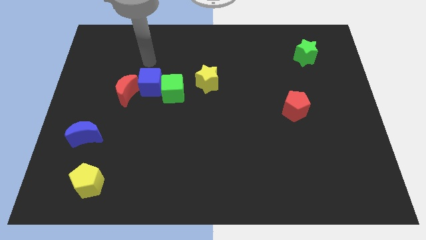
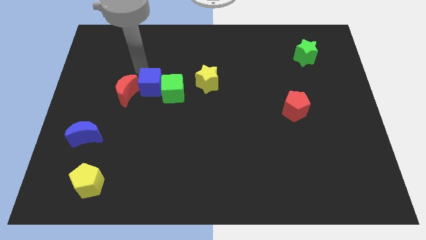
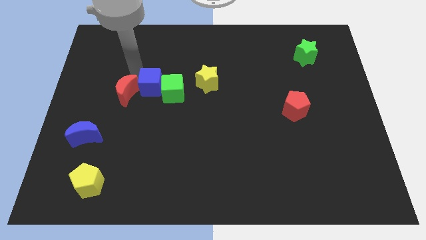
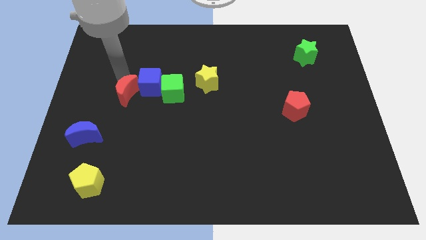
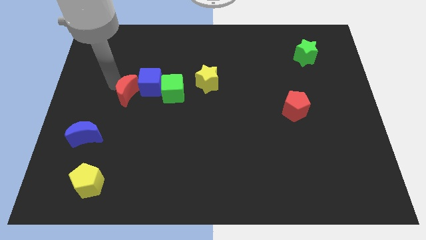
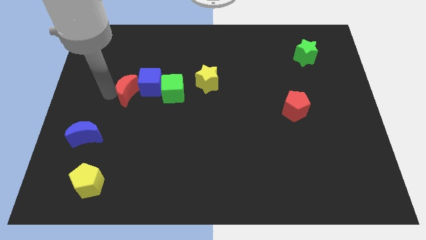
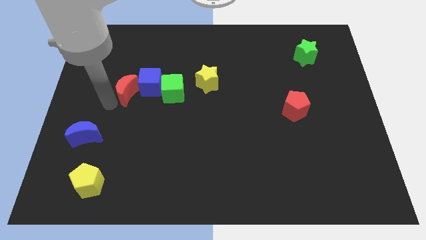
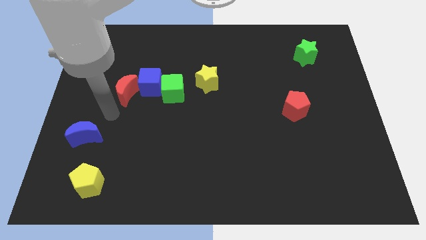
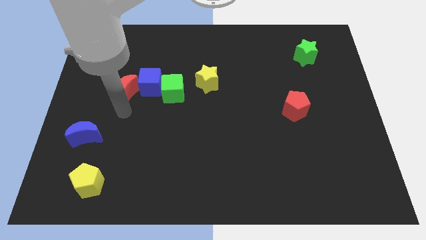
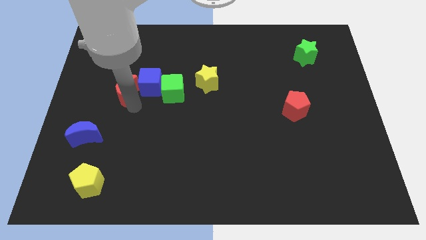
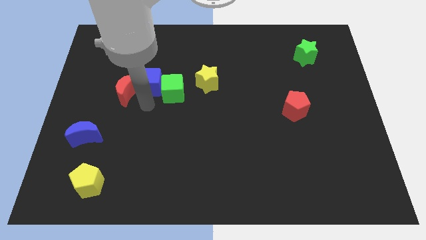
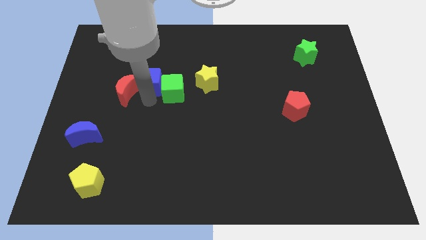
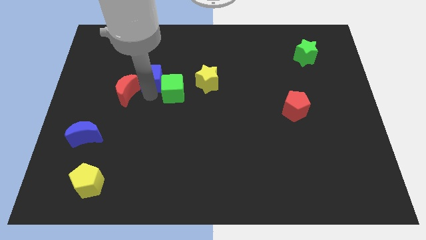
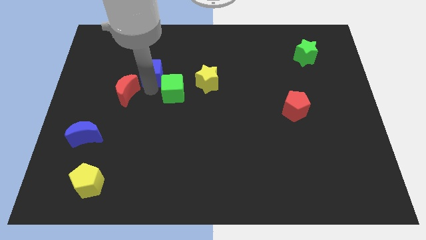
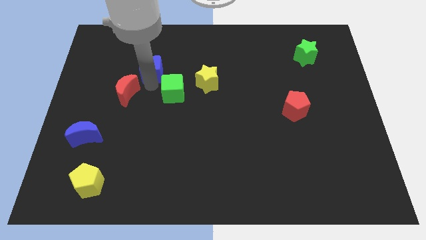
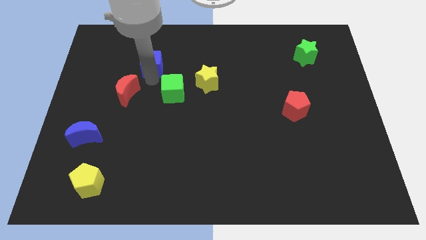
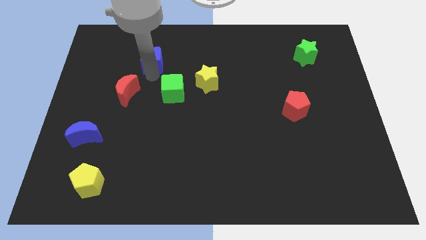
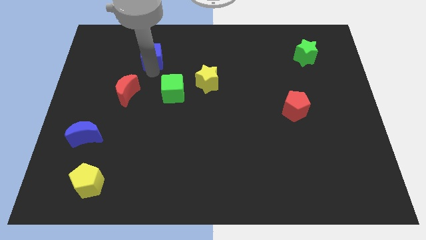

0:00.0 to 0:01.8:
move the blue cube away from the green cube and red moon

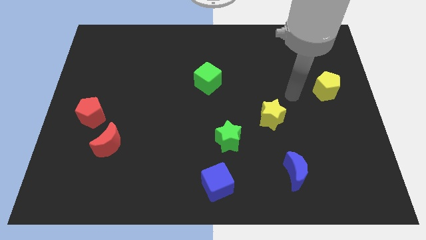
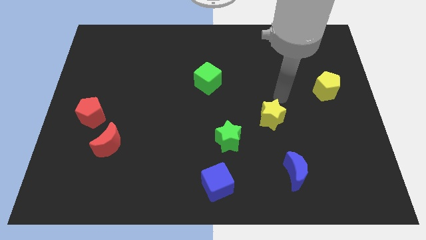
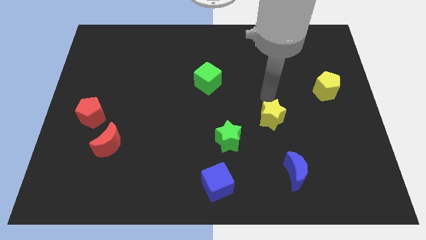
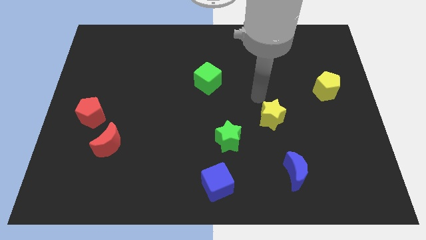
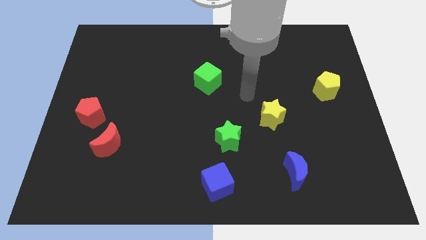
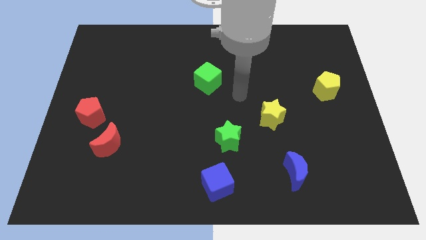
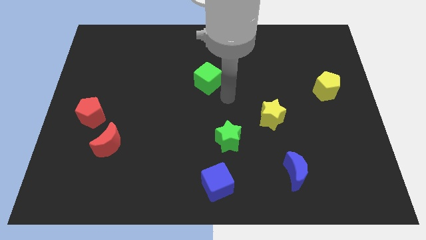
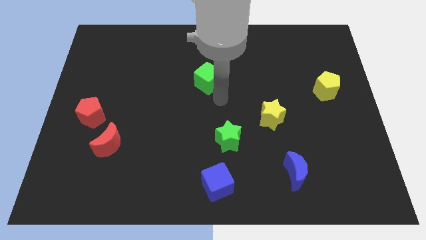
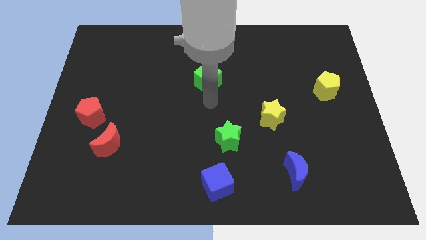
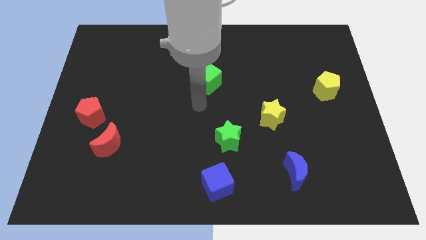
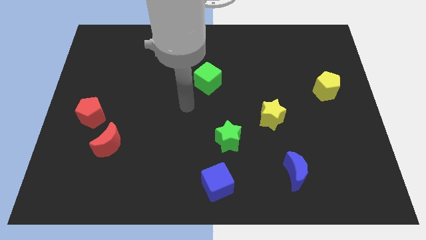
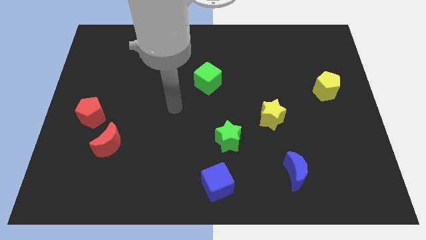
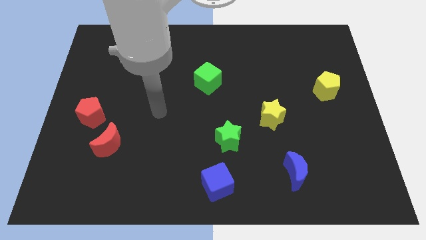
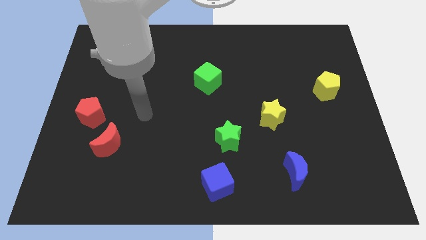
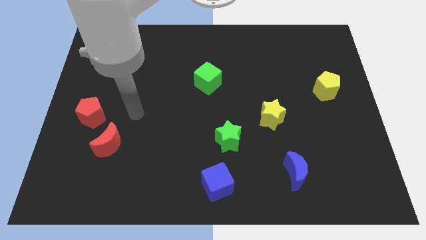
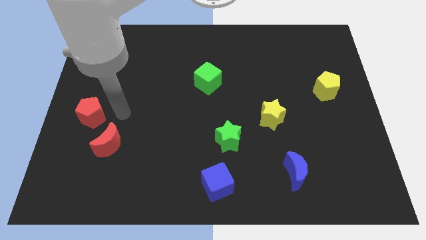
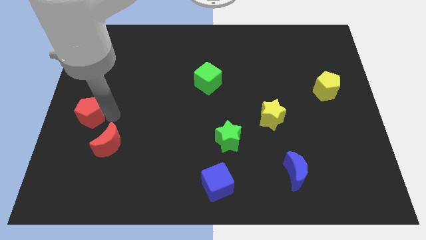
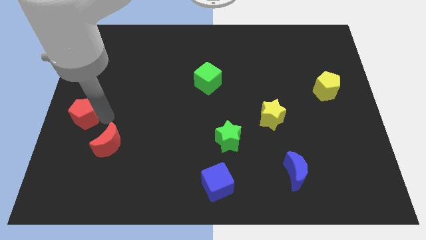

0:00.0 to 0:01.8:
move the red moon away from the red pentagon

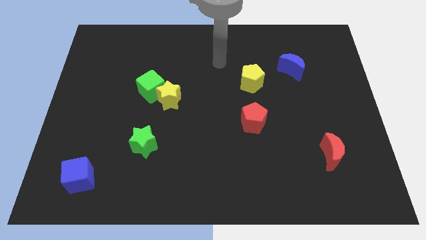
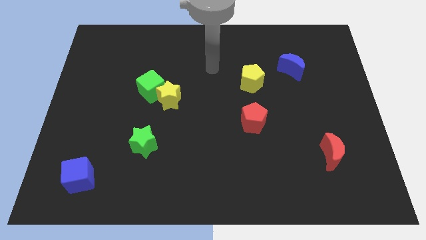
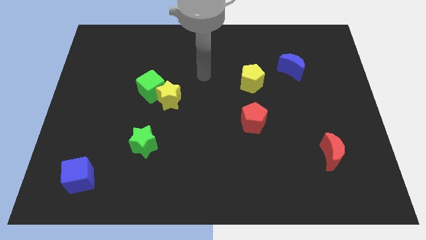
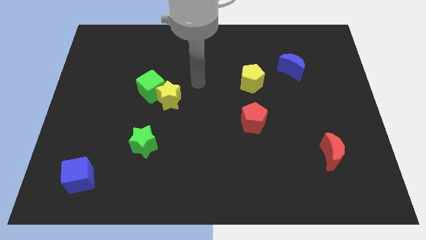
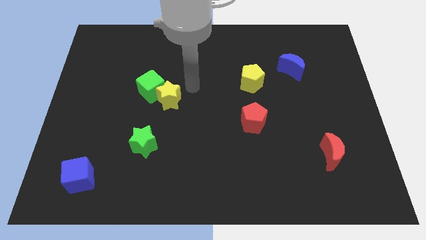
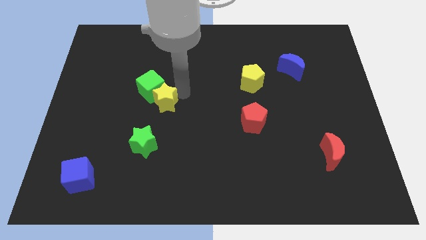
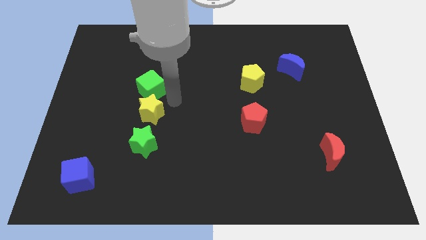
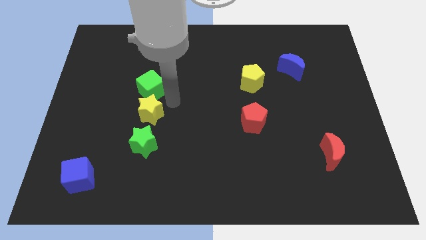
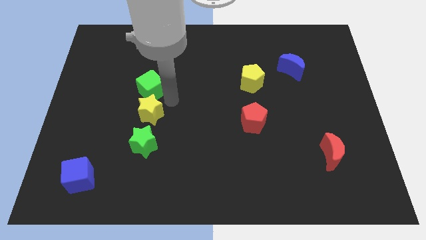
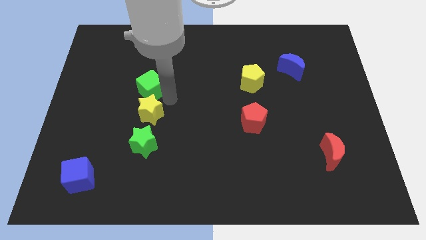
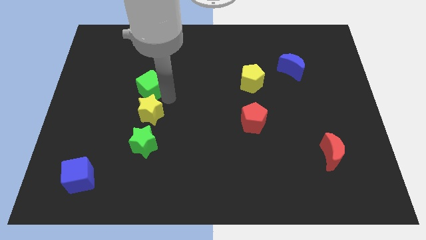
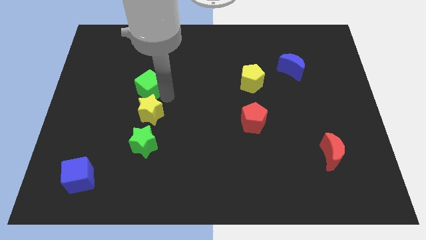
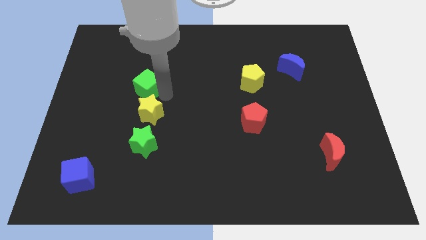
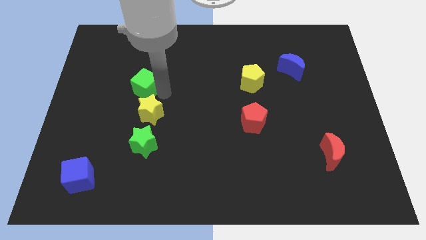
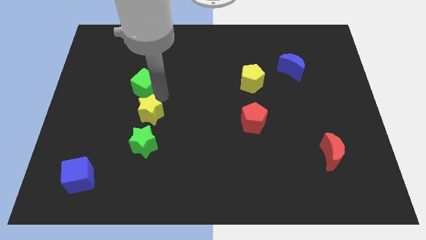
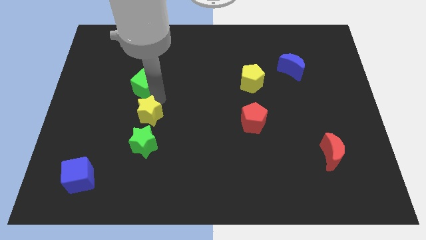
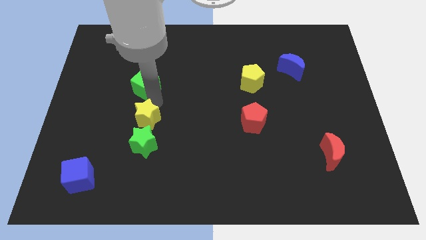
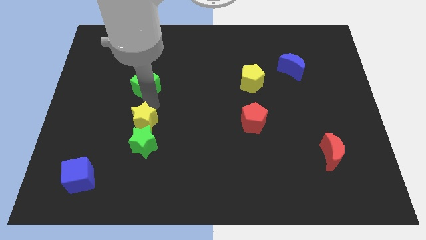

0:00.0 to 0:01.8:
move the green cube away from the yellow star

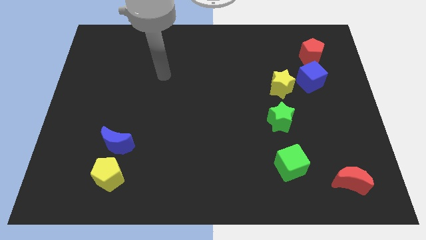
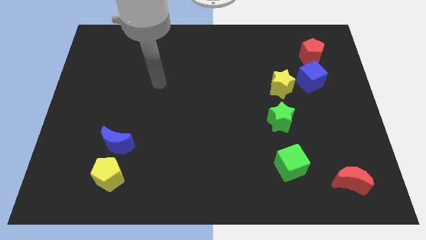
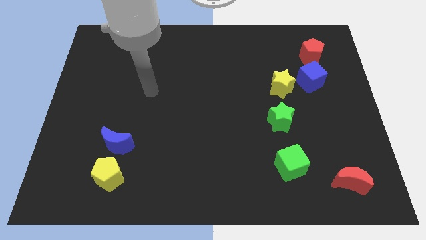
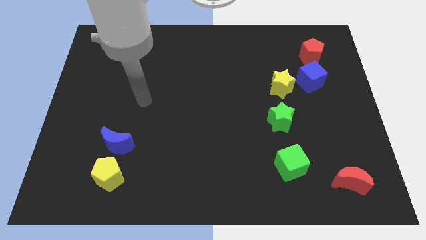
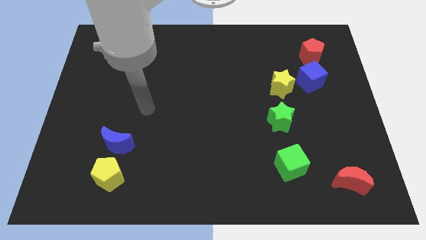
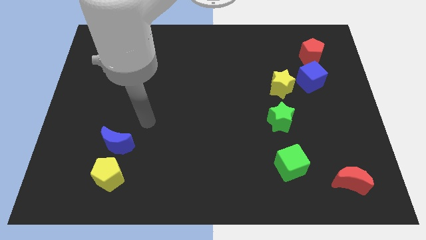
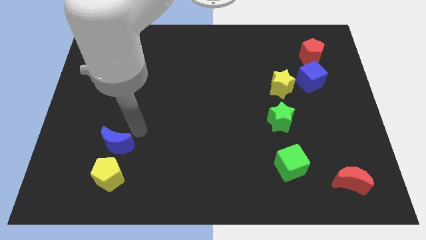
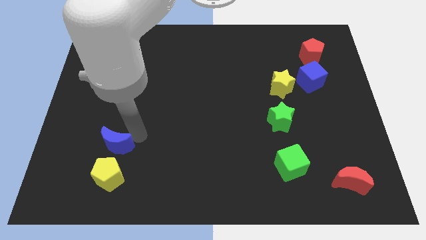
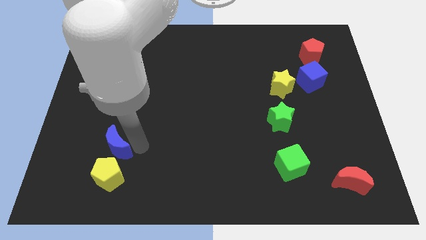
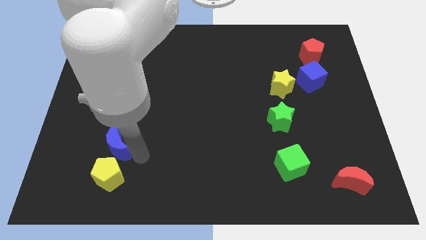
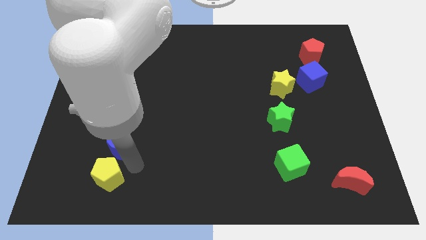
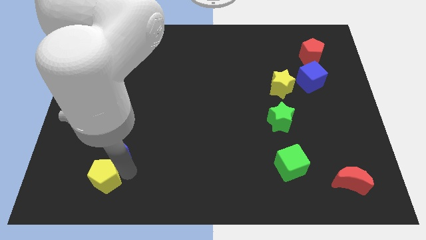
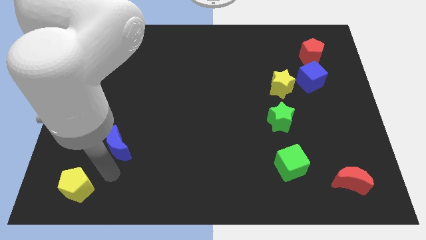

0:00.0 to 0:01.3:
pull the blue moon apart from the yellow pentagon

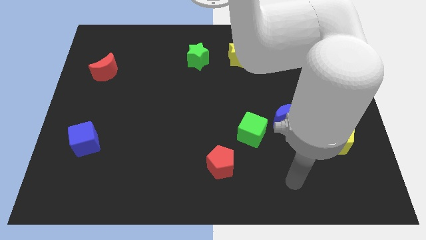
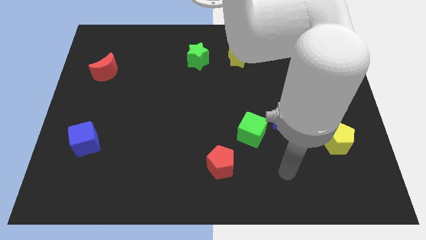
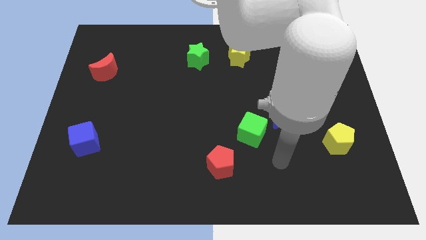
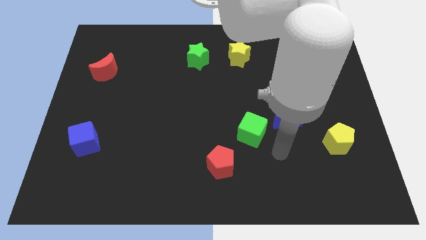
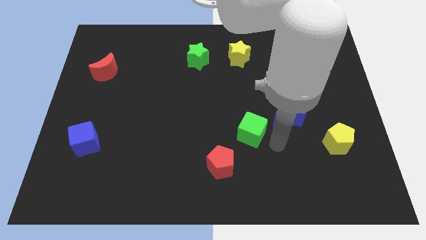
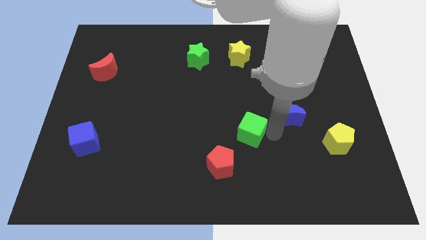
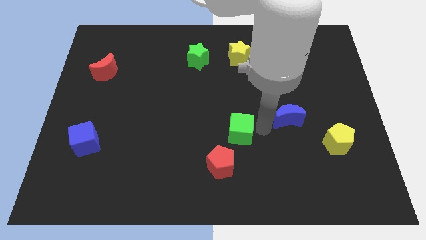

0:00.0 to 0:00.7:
move the blue moon away from the green cube

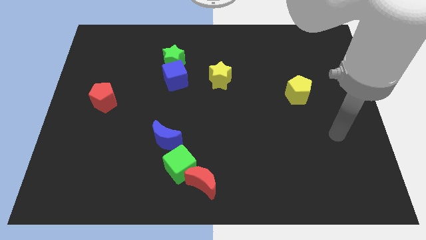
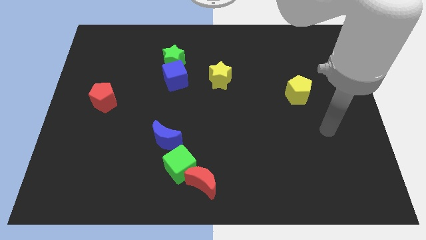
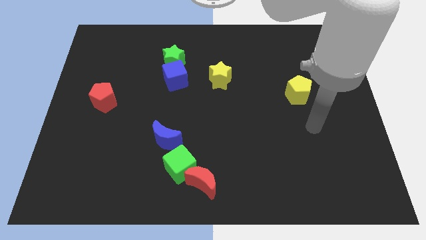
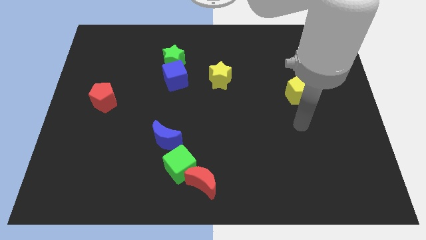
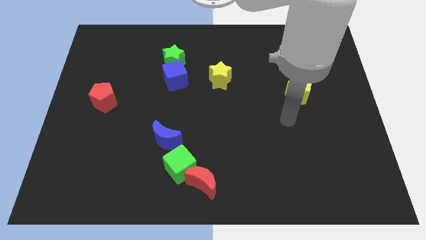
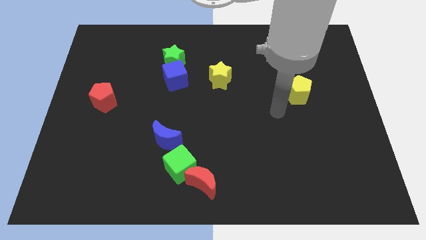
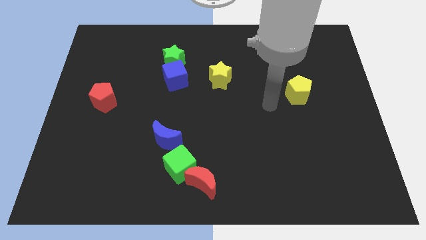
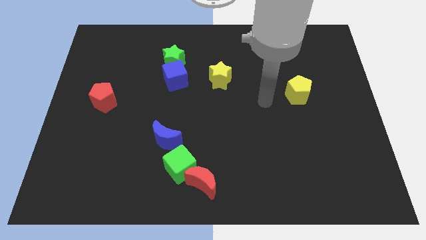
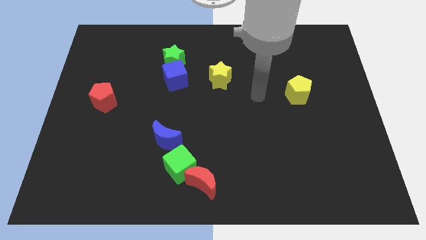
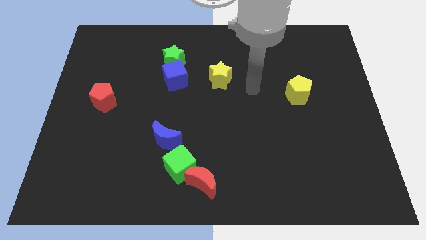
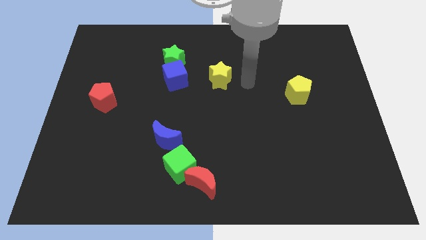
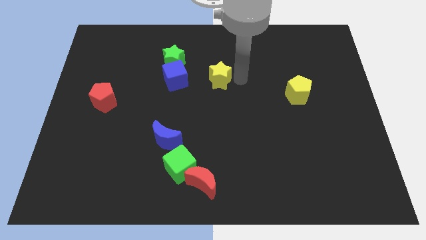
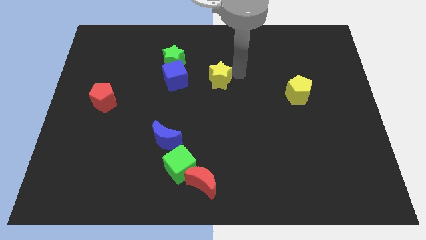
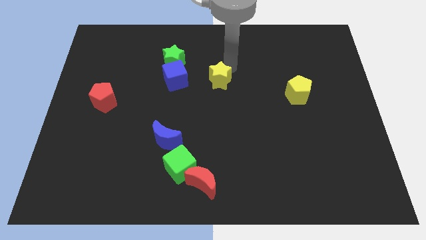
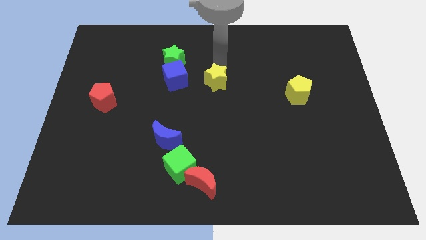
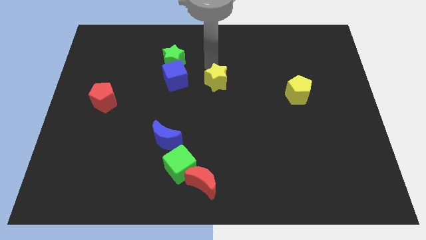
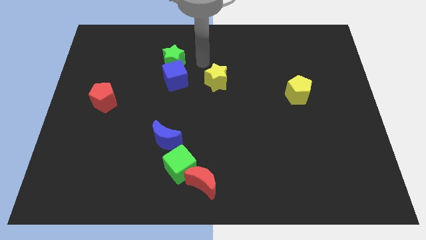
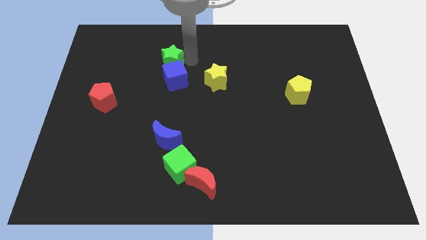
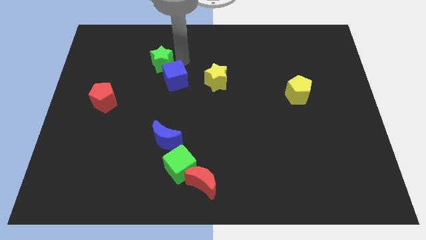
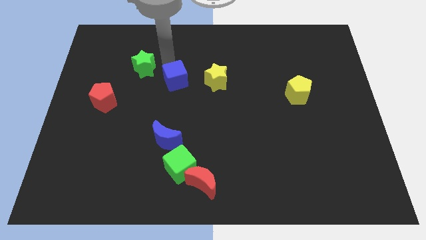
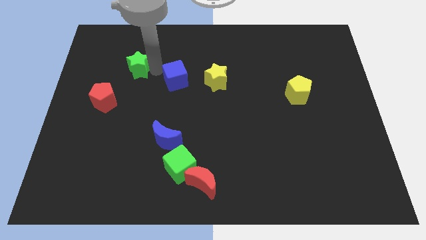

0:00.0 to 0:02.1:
separate the blue cube from the green star
